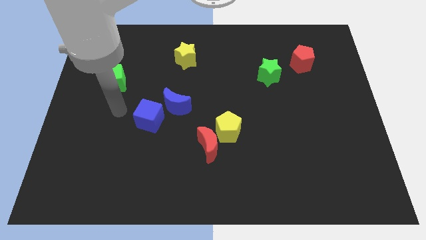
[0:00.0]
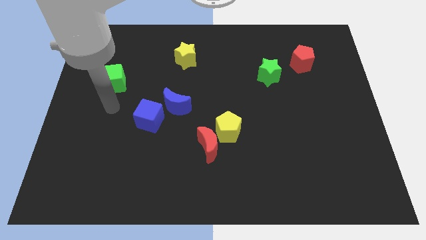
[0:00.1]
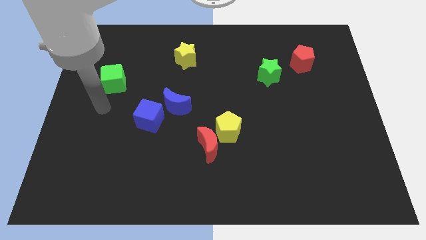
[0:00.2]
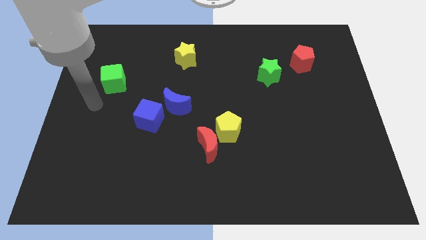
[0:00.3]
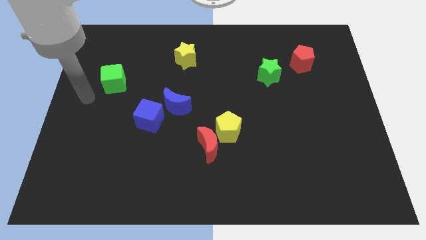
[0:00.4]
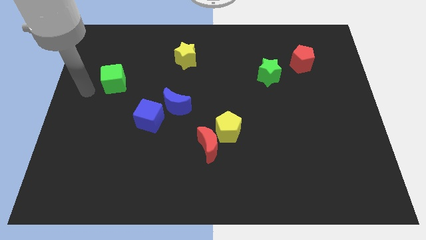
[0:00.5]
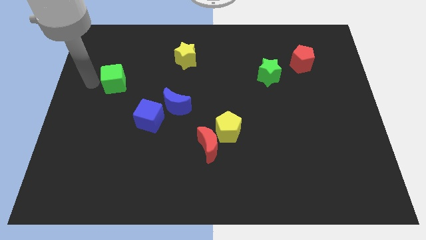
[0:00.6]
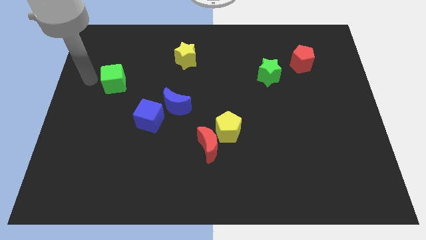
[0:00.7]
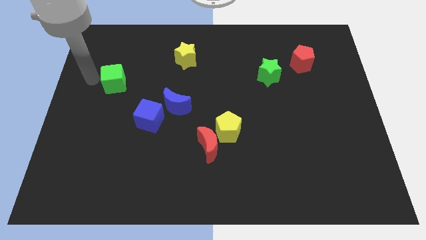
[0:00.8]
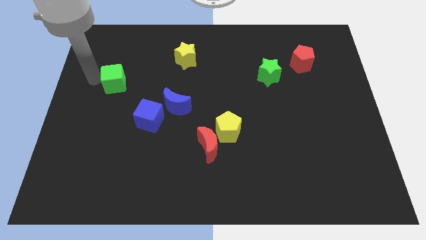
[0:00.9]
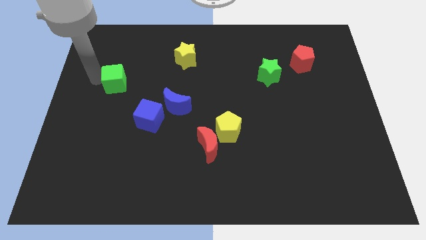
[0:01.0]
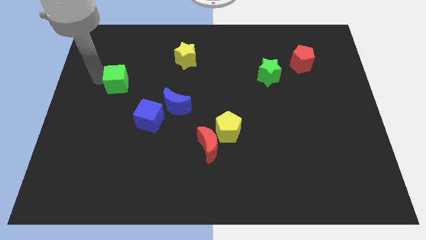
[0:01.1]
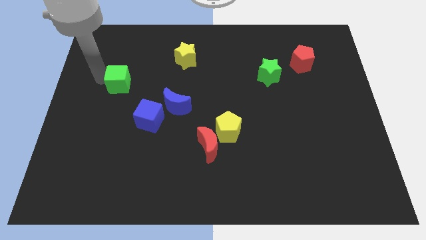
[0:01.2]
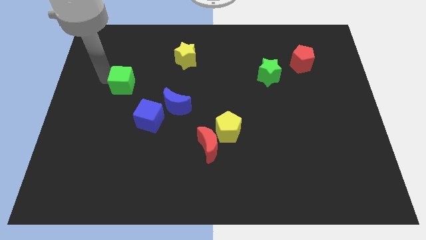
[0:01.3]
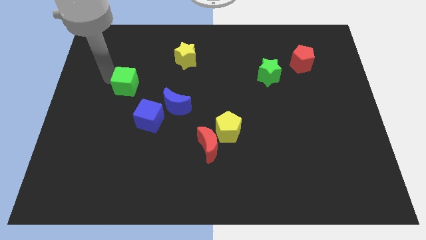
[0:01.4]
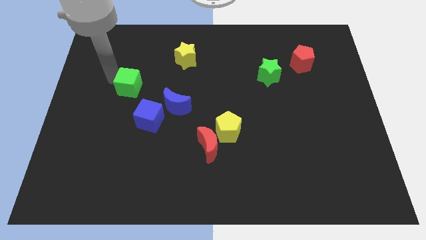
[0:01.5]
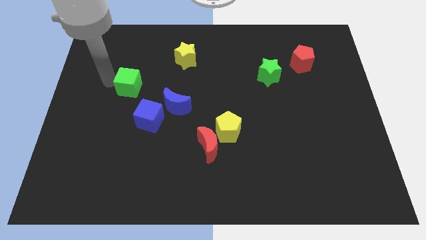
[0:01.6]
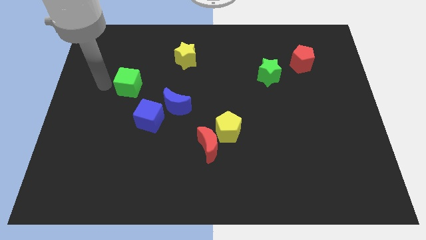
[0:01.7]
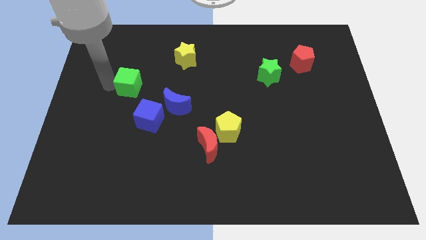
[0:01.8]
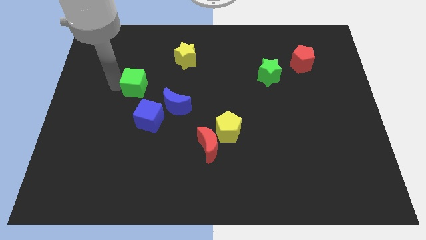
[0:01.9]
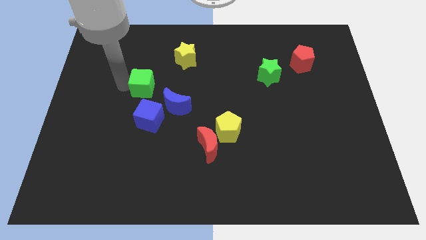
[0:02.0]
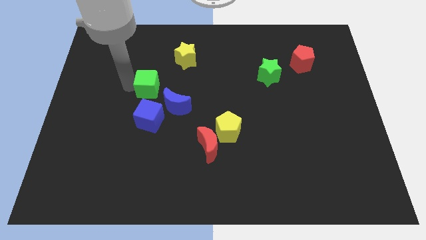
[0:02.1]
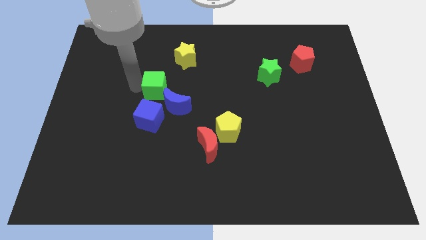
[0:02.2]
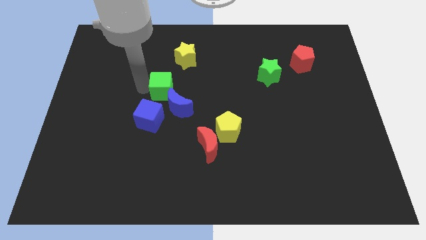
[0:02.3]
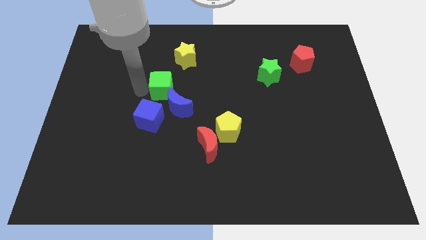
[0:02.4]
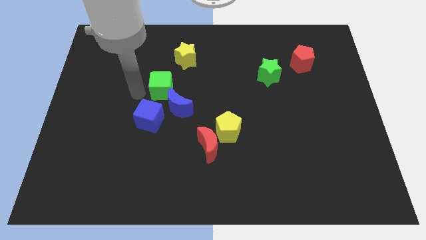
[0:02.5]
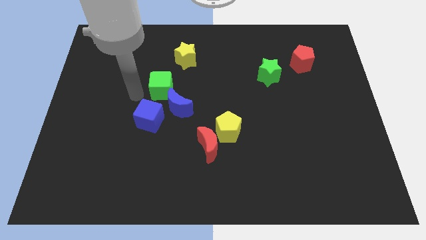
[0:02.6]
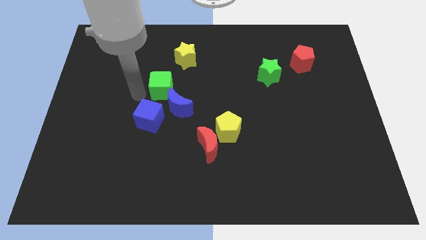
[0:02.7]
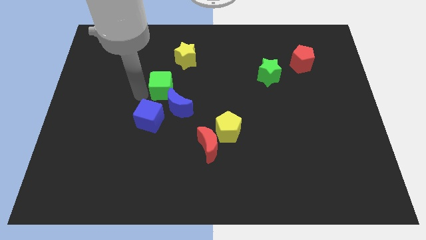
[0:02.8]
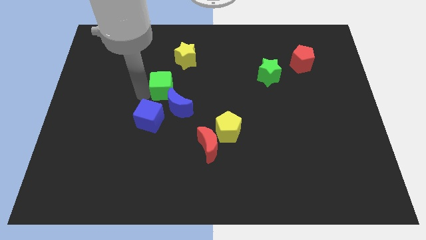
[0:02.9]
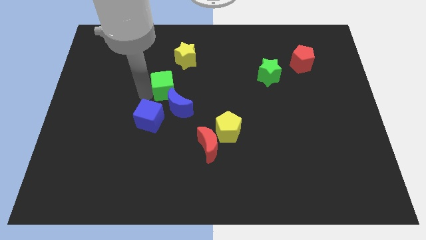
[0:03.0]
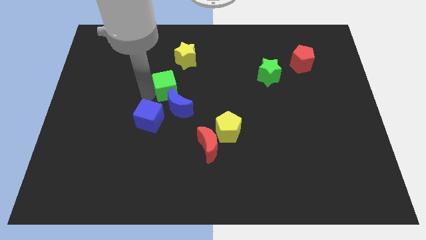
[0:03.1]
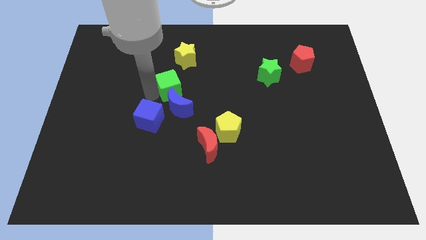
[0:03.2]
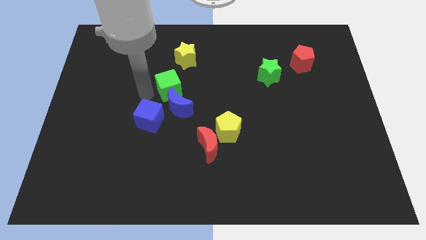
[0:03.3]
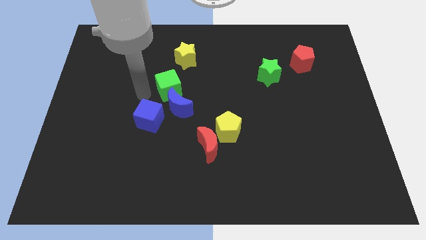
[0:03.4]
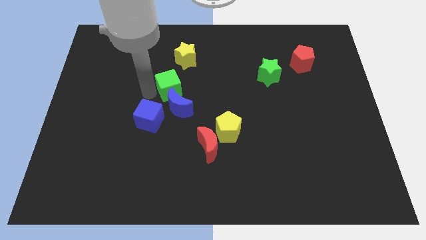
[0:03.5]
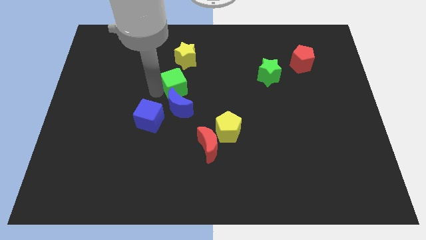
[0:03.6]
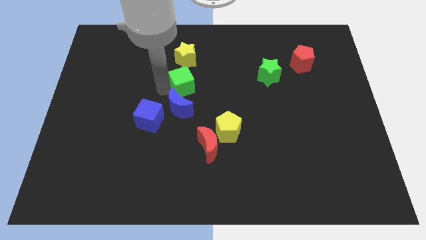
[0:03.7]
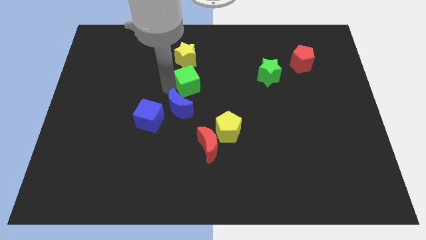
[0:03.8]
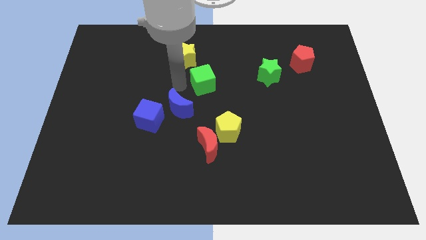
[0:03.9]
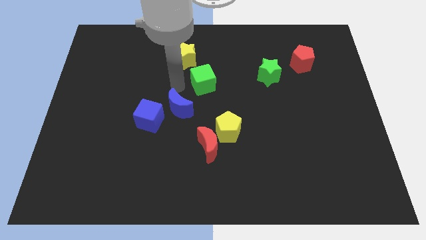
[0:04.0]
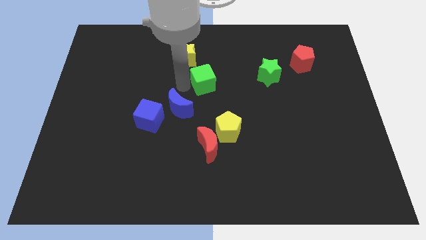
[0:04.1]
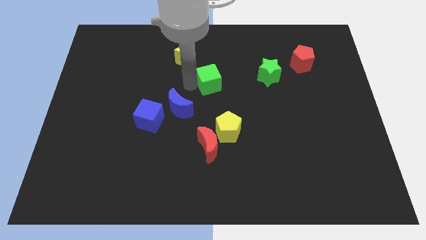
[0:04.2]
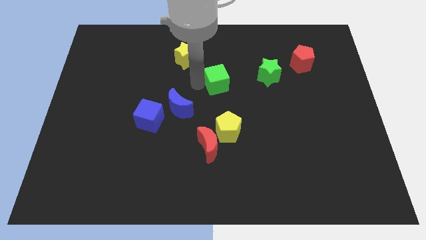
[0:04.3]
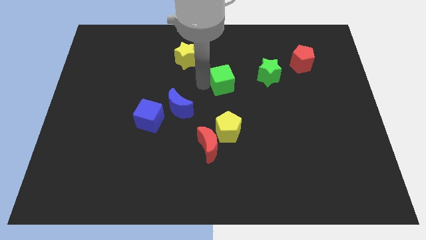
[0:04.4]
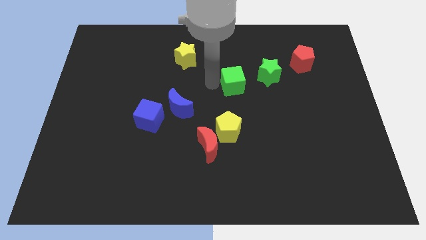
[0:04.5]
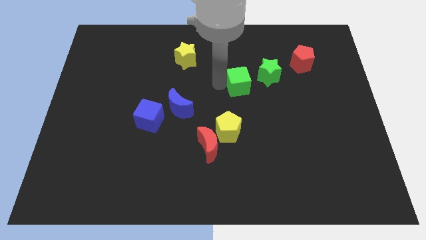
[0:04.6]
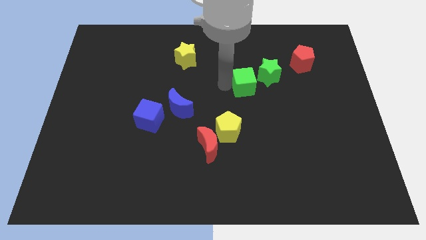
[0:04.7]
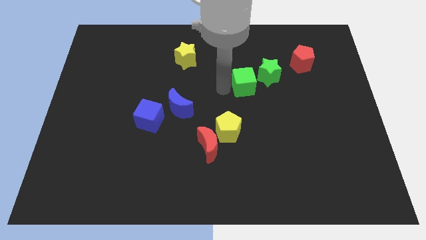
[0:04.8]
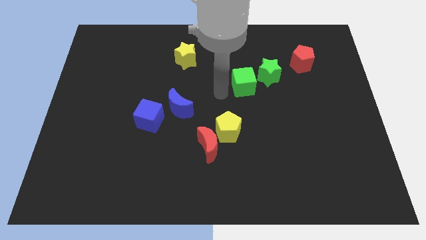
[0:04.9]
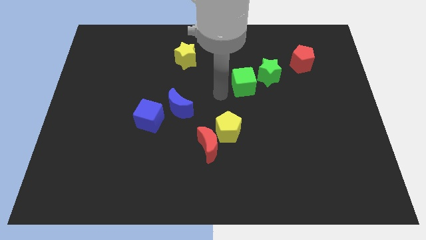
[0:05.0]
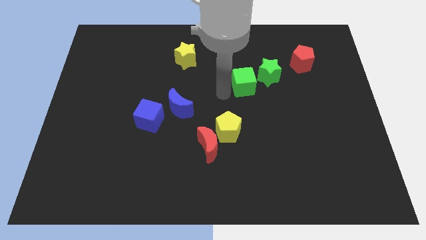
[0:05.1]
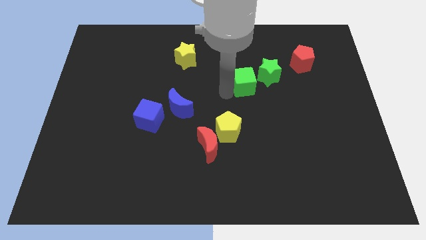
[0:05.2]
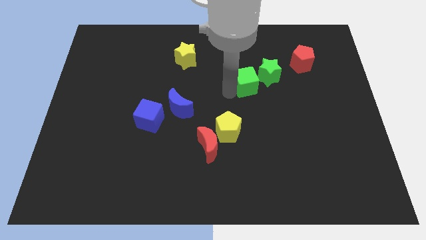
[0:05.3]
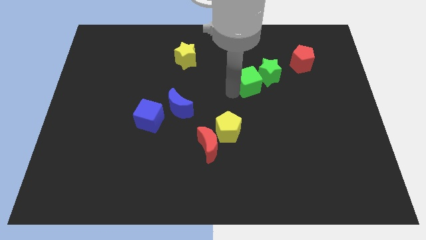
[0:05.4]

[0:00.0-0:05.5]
slide the green cube to the green star

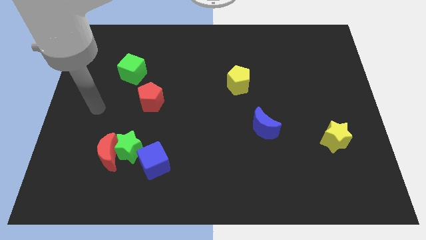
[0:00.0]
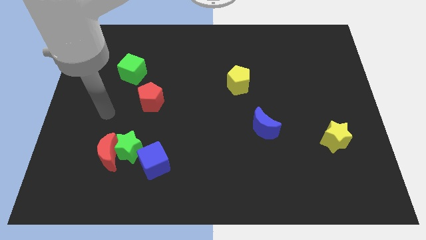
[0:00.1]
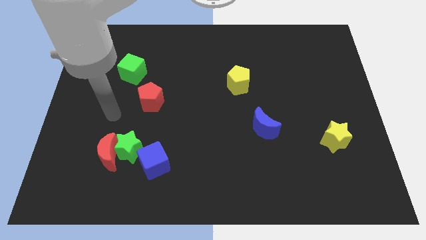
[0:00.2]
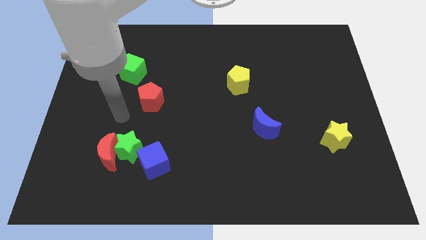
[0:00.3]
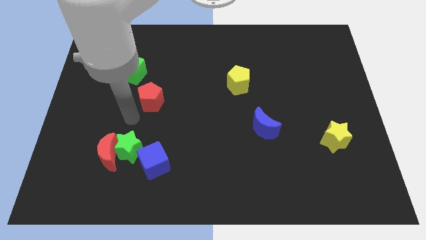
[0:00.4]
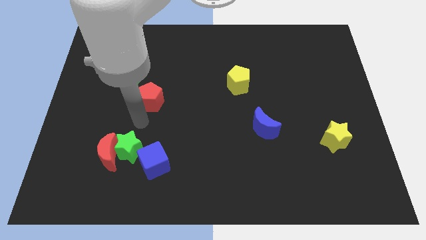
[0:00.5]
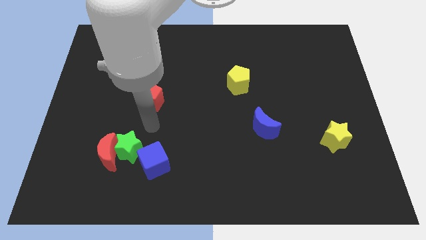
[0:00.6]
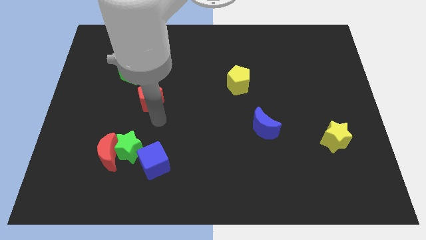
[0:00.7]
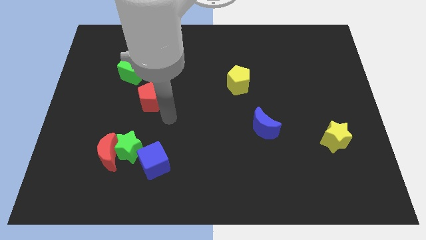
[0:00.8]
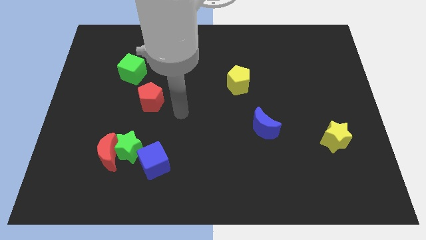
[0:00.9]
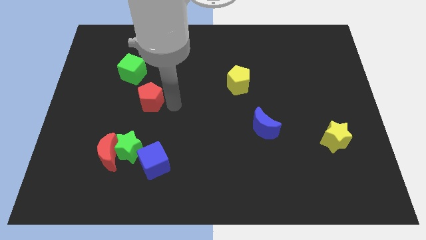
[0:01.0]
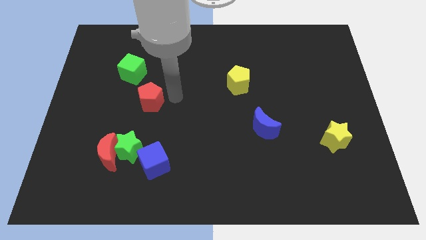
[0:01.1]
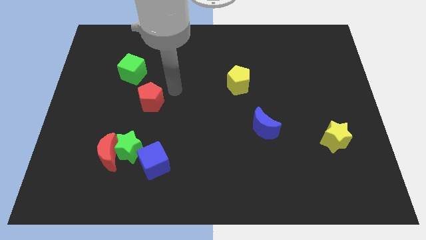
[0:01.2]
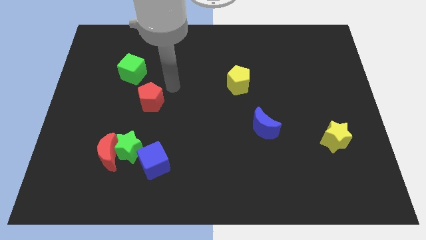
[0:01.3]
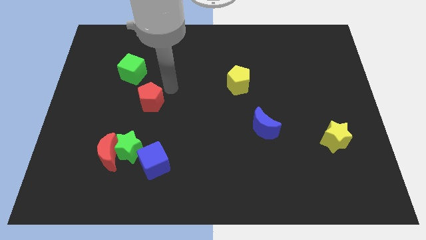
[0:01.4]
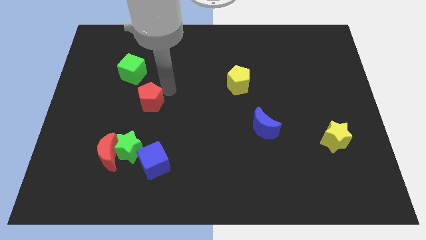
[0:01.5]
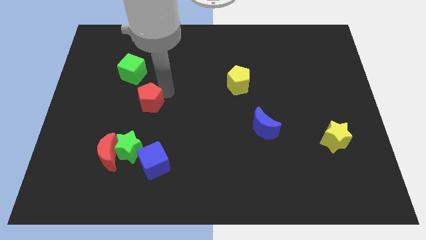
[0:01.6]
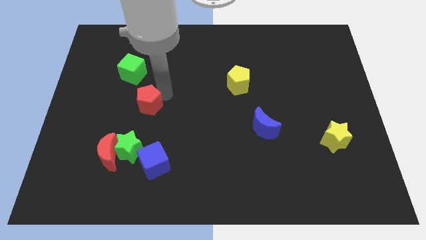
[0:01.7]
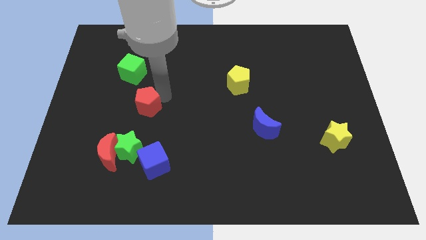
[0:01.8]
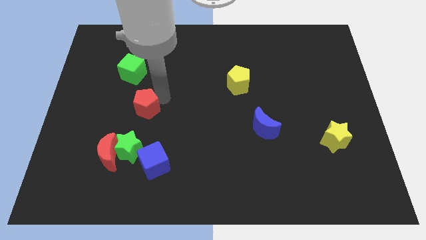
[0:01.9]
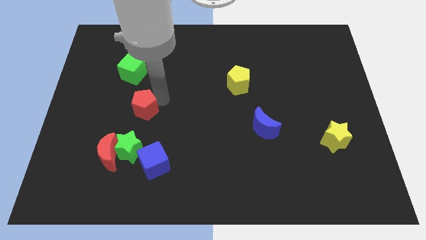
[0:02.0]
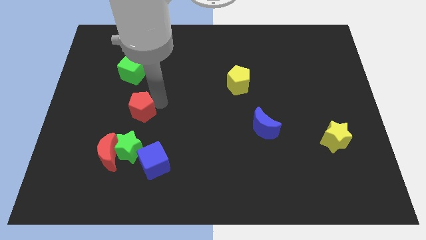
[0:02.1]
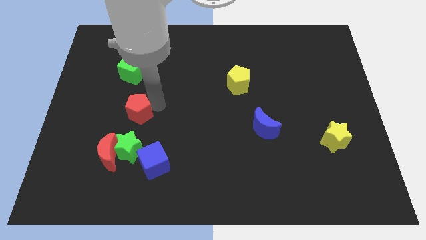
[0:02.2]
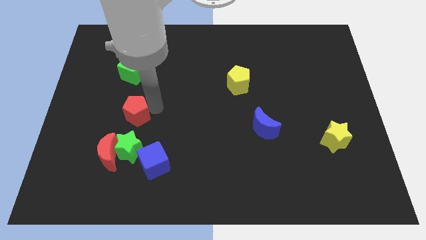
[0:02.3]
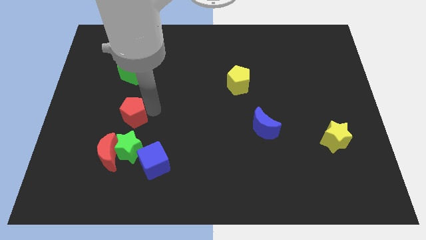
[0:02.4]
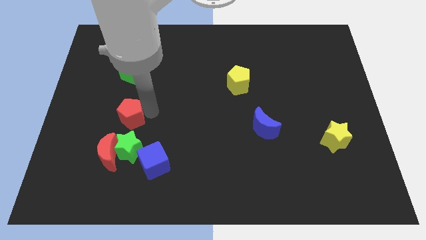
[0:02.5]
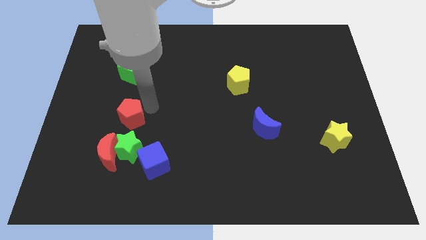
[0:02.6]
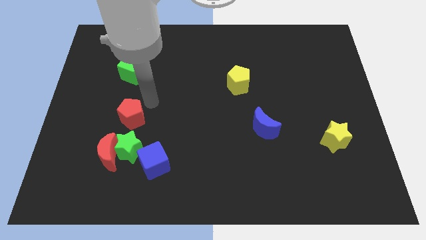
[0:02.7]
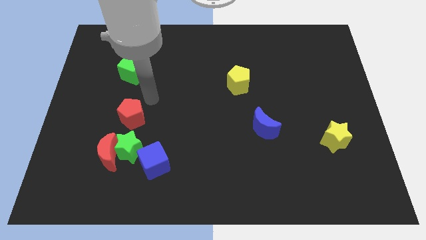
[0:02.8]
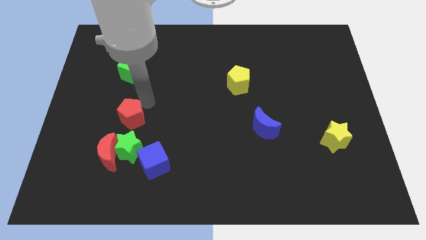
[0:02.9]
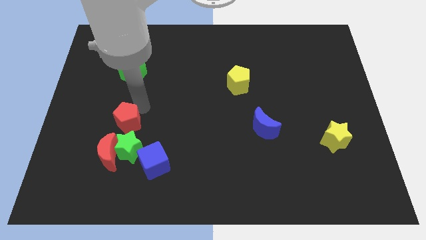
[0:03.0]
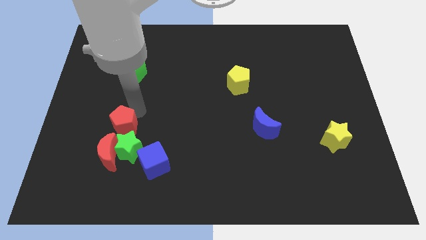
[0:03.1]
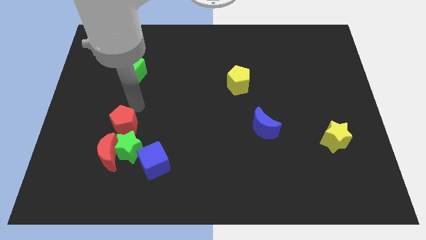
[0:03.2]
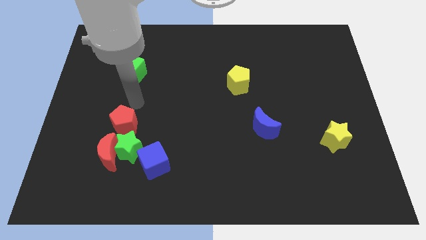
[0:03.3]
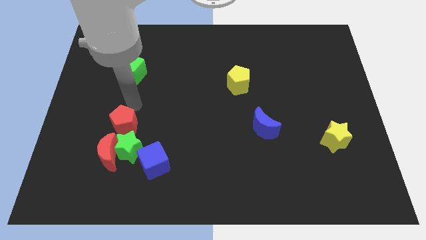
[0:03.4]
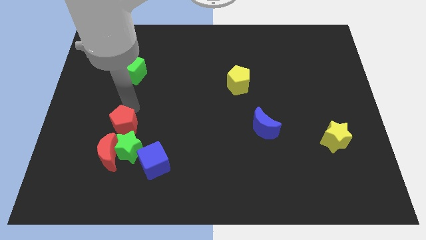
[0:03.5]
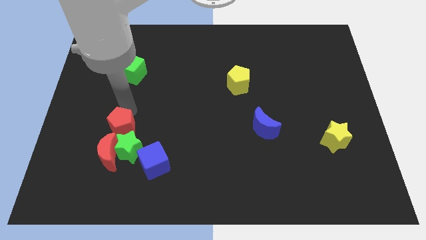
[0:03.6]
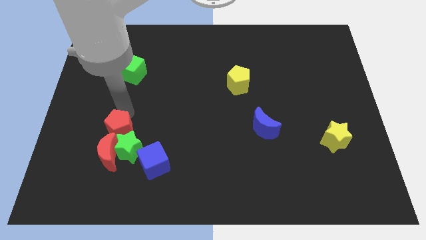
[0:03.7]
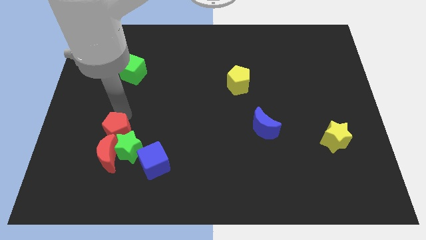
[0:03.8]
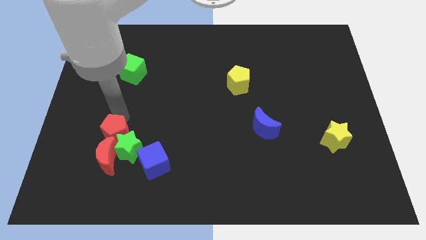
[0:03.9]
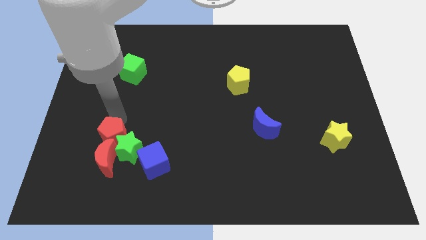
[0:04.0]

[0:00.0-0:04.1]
push the red pentagon close to the red moon
